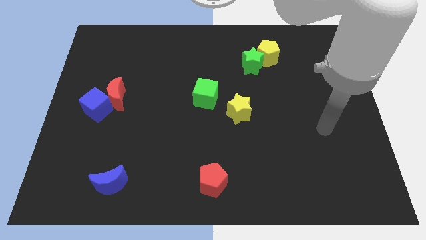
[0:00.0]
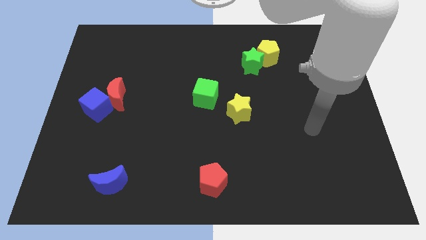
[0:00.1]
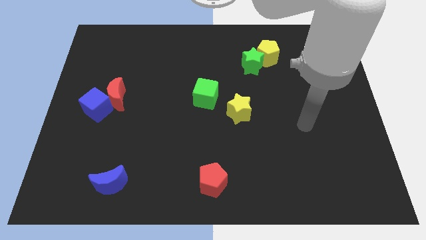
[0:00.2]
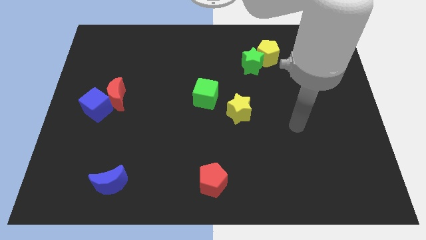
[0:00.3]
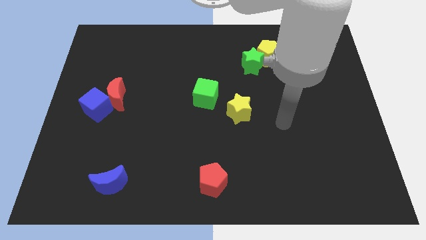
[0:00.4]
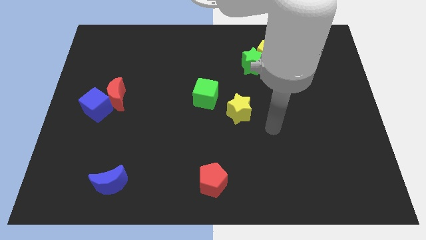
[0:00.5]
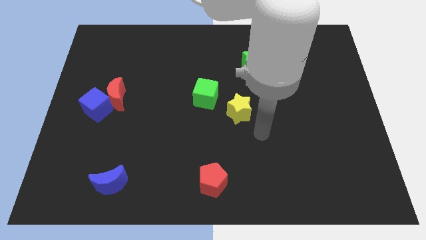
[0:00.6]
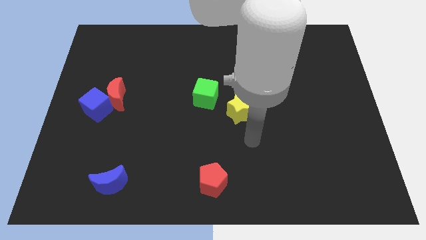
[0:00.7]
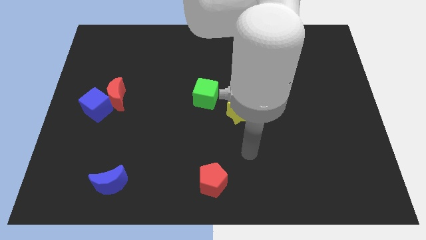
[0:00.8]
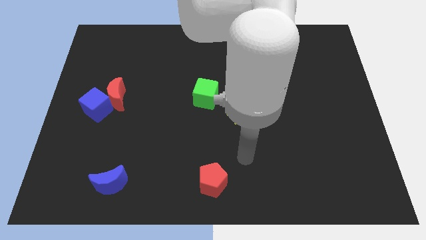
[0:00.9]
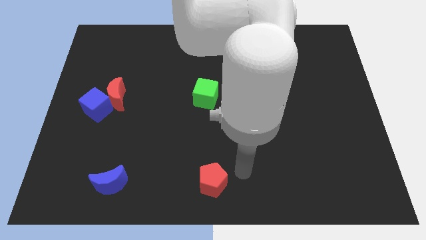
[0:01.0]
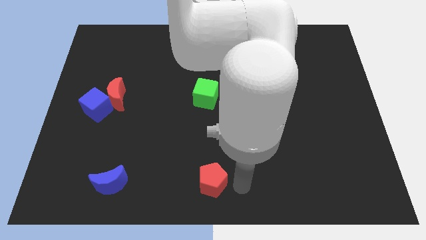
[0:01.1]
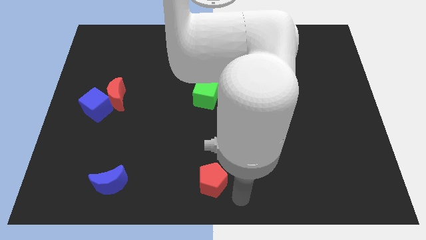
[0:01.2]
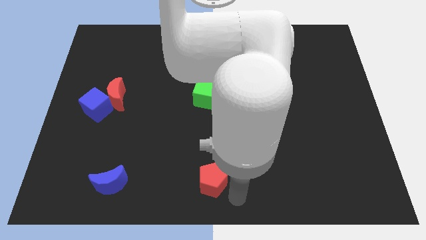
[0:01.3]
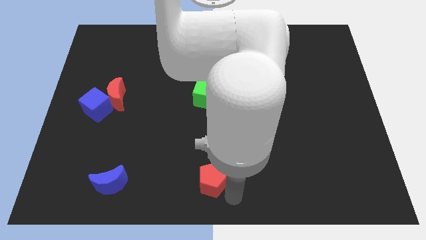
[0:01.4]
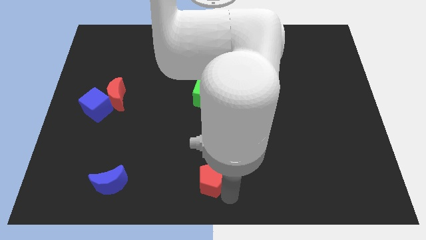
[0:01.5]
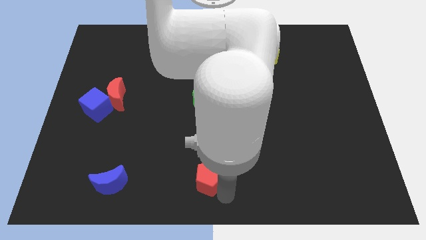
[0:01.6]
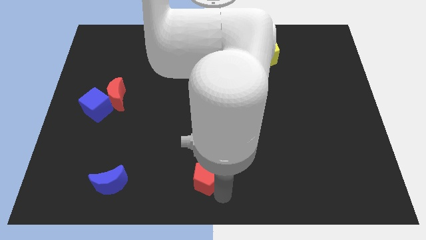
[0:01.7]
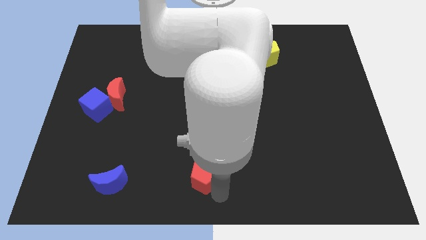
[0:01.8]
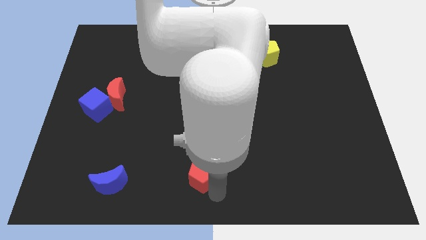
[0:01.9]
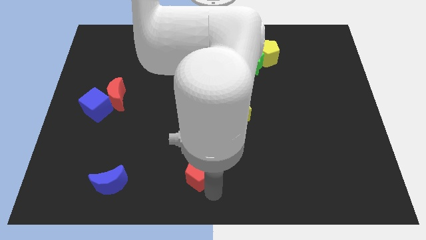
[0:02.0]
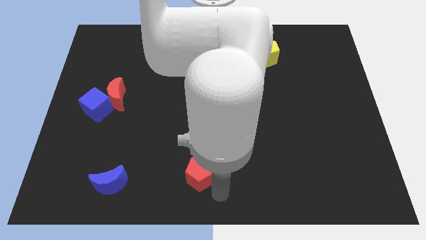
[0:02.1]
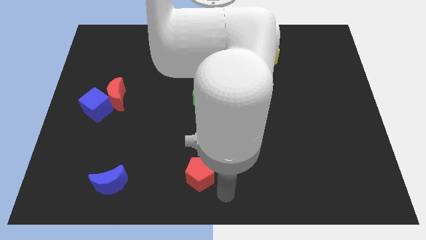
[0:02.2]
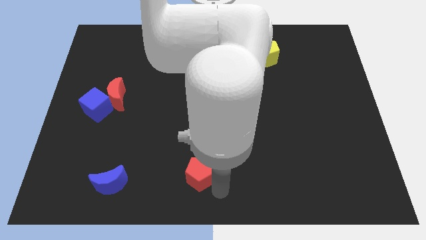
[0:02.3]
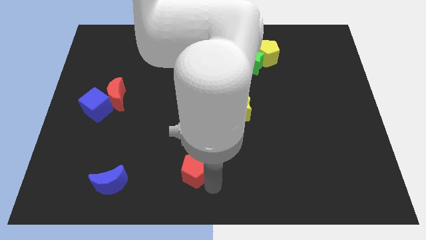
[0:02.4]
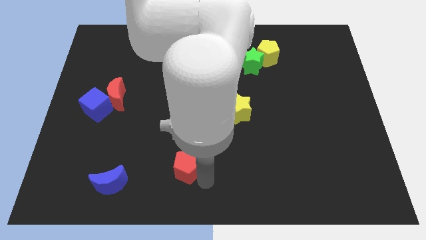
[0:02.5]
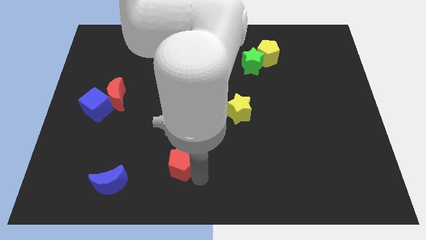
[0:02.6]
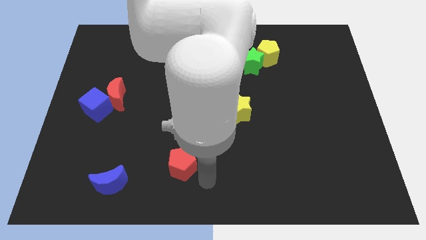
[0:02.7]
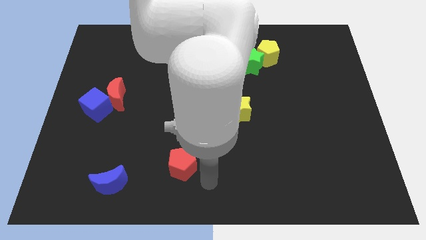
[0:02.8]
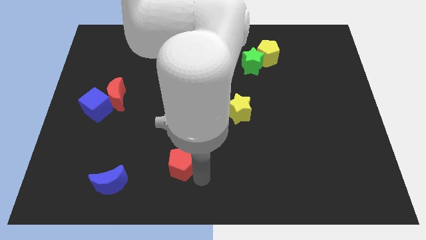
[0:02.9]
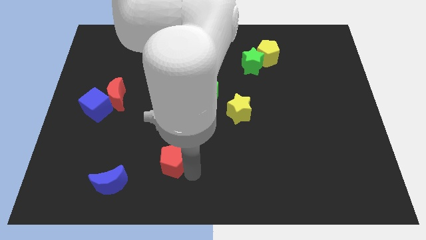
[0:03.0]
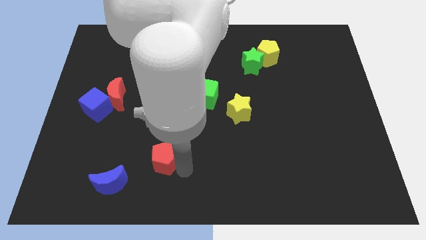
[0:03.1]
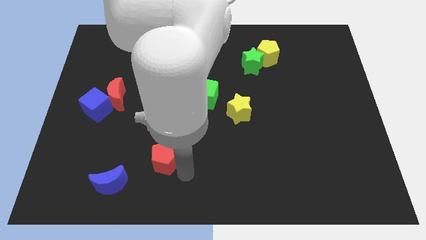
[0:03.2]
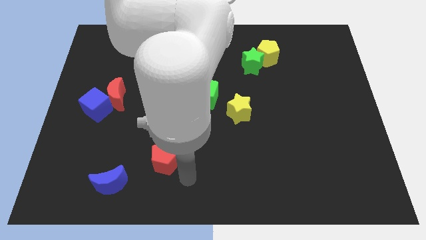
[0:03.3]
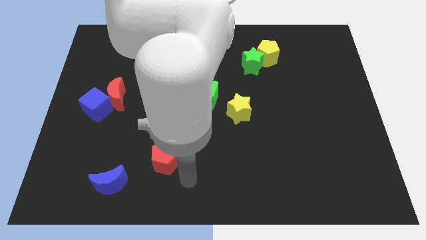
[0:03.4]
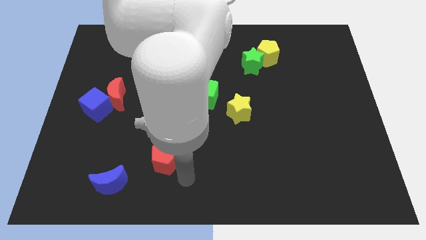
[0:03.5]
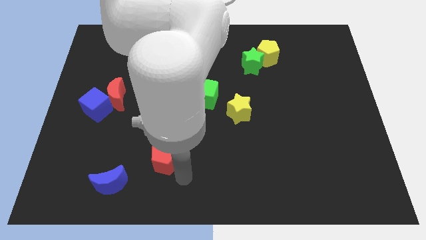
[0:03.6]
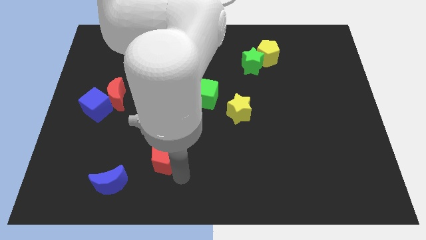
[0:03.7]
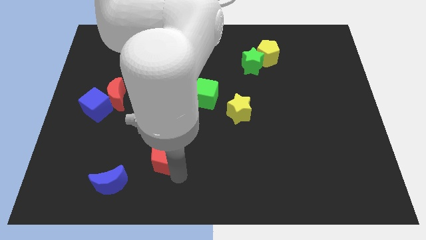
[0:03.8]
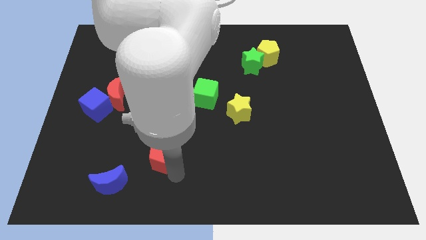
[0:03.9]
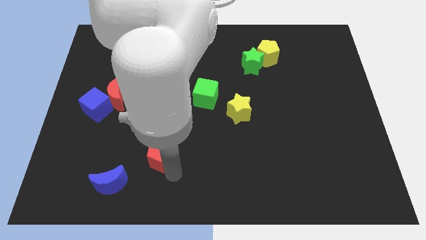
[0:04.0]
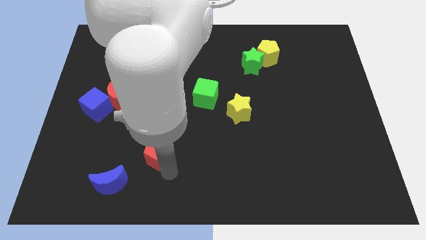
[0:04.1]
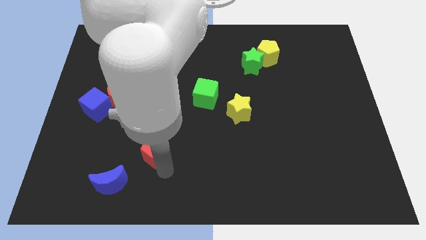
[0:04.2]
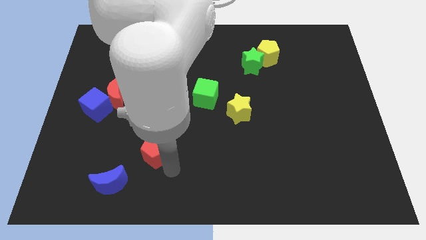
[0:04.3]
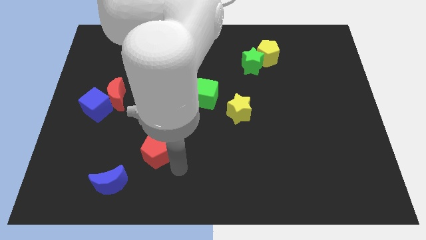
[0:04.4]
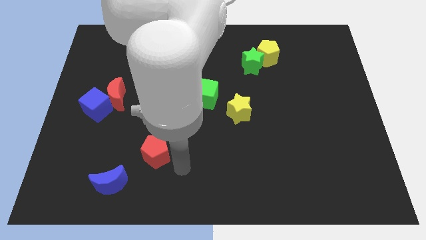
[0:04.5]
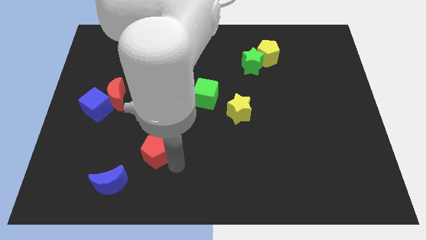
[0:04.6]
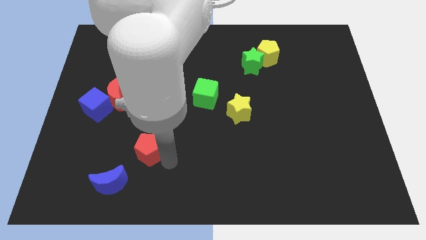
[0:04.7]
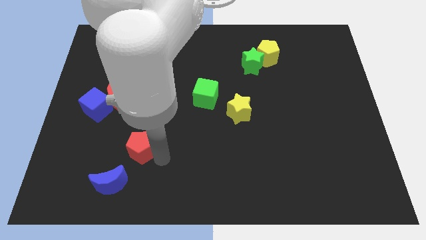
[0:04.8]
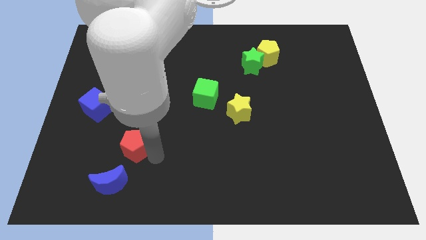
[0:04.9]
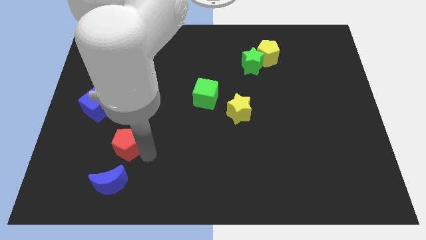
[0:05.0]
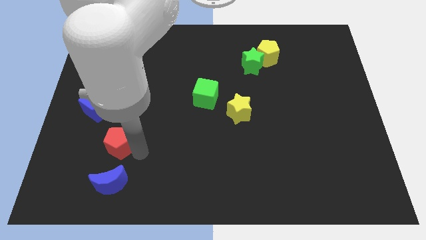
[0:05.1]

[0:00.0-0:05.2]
slide the red pentagon to the bottom side of the red moon
